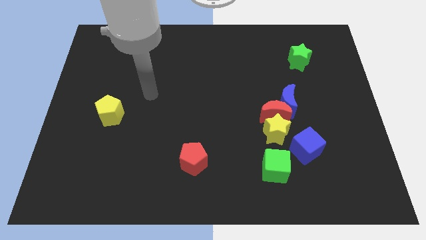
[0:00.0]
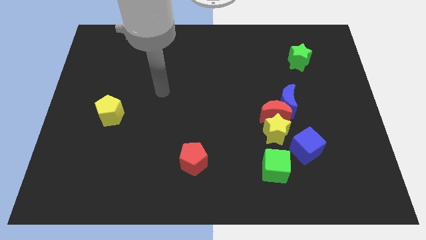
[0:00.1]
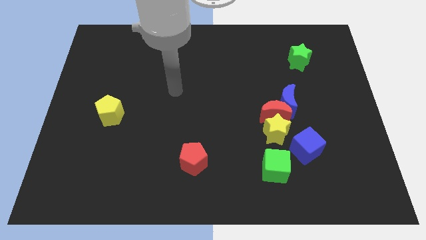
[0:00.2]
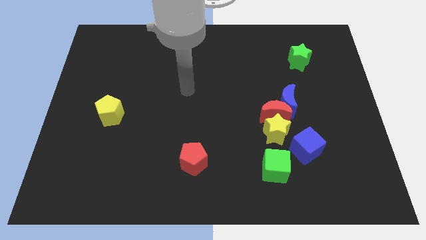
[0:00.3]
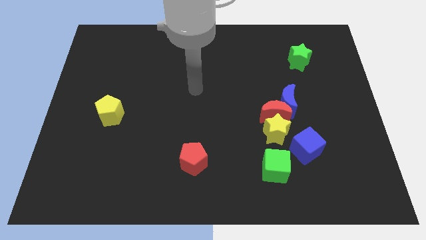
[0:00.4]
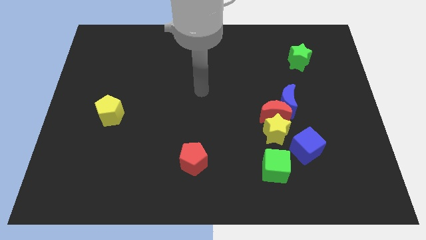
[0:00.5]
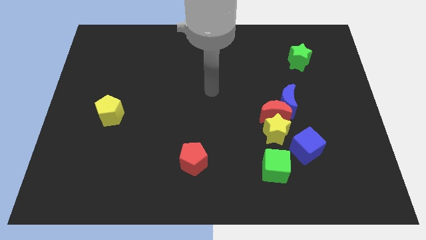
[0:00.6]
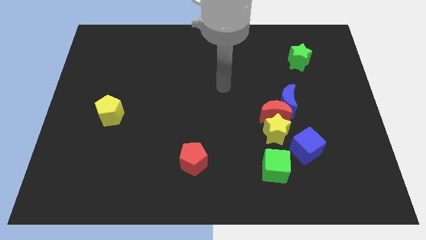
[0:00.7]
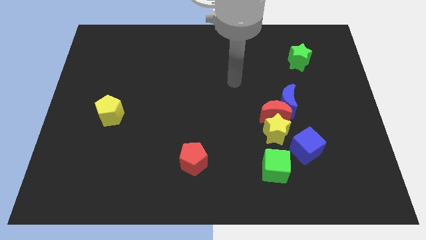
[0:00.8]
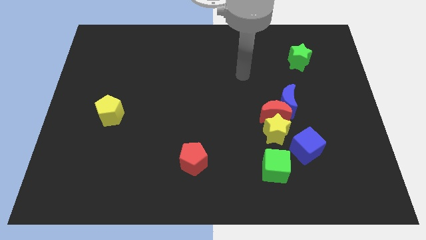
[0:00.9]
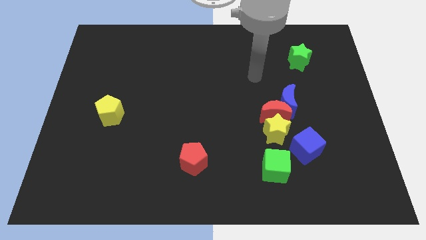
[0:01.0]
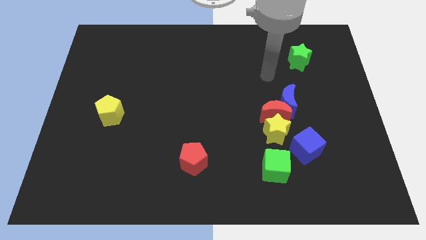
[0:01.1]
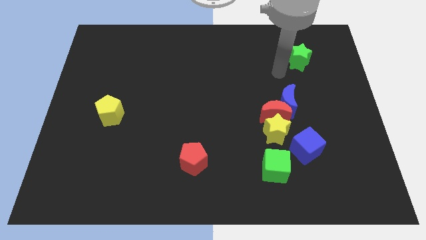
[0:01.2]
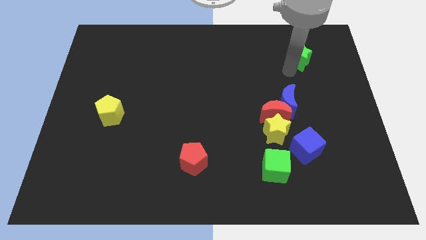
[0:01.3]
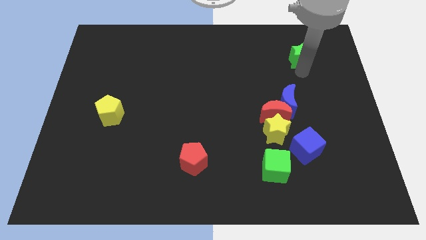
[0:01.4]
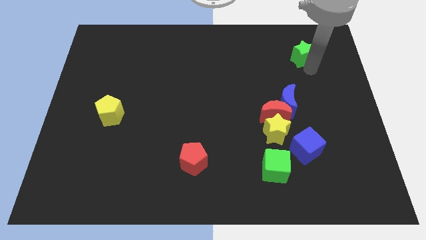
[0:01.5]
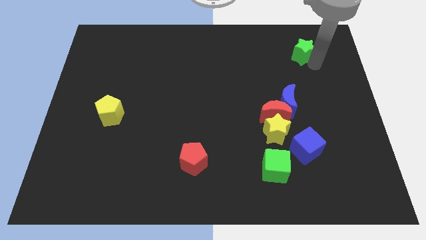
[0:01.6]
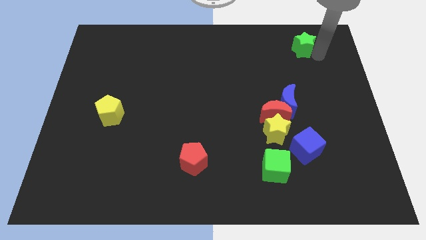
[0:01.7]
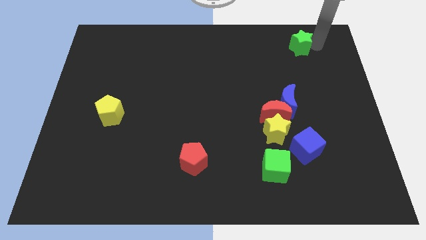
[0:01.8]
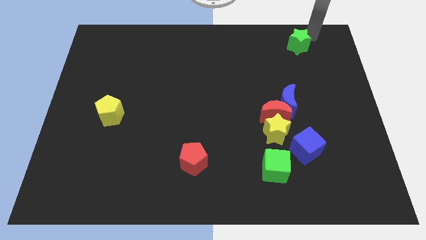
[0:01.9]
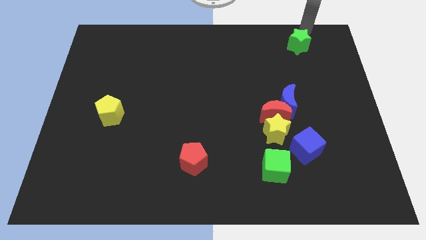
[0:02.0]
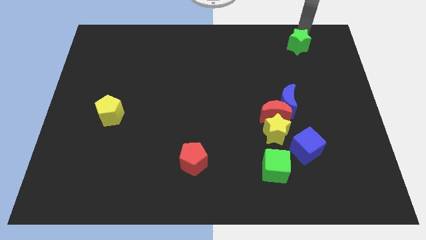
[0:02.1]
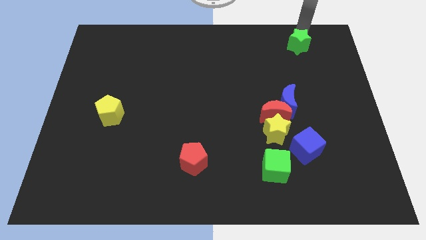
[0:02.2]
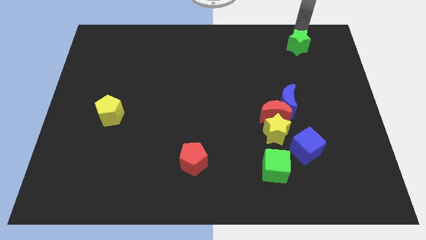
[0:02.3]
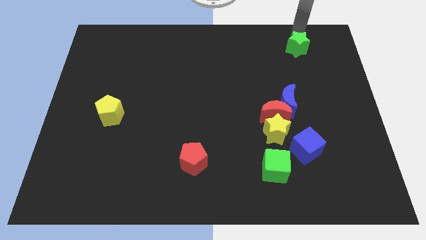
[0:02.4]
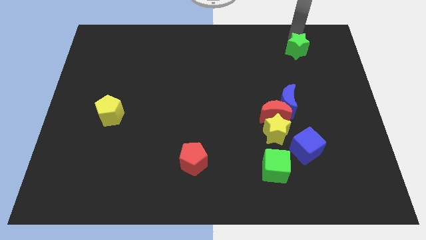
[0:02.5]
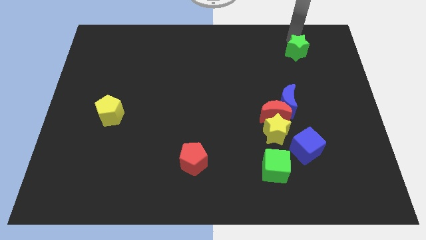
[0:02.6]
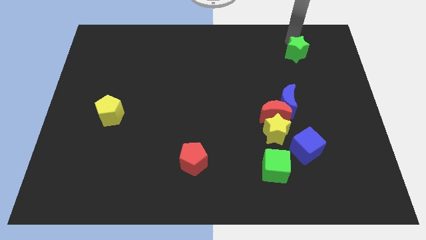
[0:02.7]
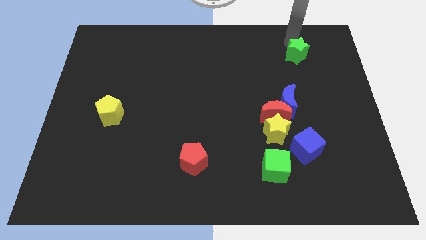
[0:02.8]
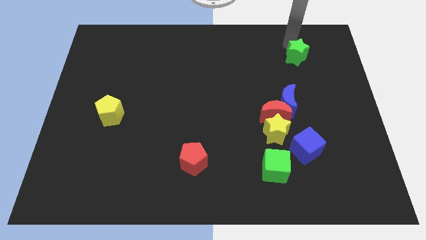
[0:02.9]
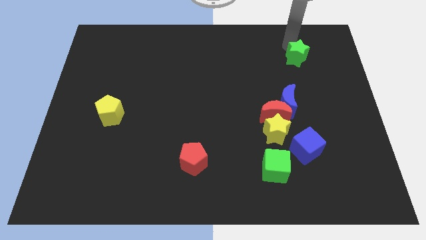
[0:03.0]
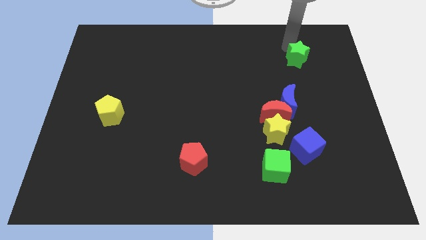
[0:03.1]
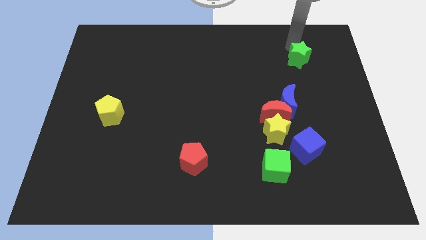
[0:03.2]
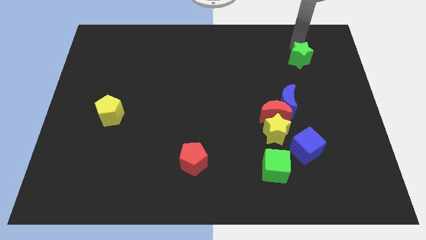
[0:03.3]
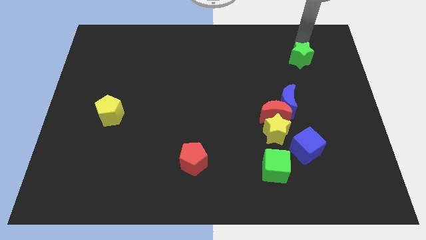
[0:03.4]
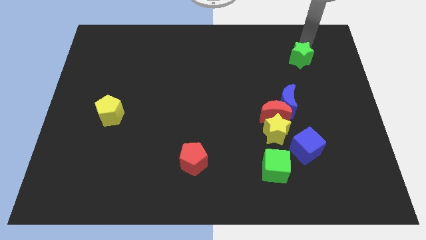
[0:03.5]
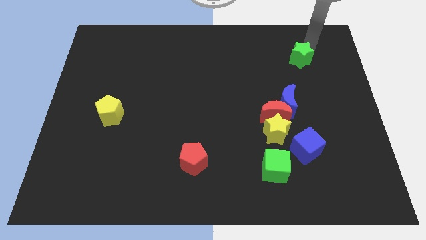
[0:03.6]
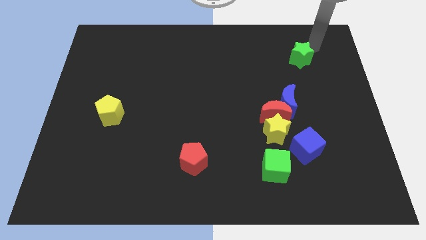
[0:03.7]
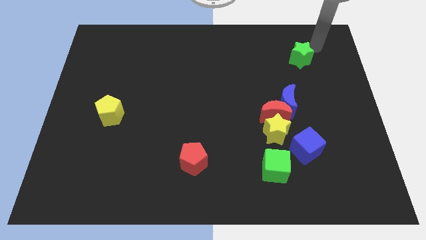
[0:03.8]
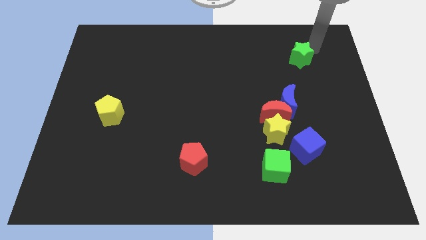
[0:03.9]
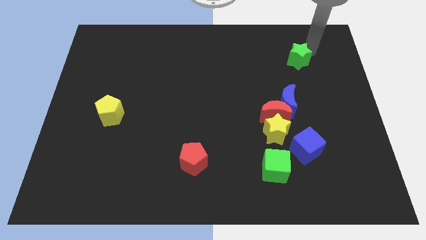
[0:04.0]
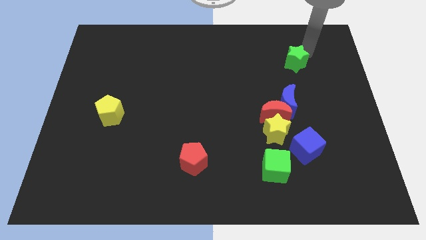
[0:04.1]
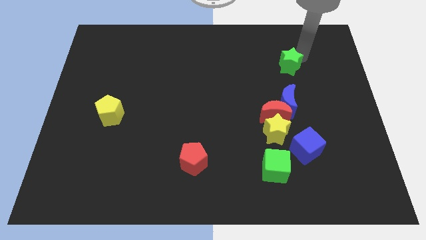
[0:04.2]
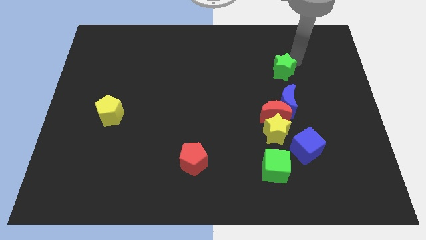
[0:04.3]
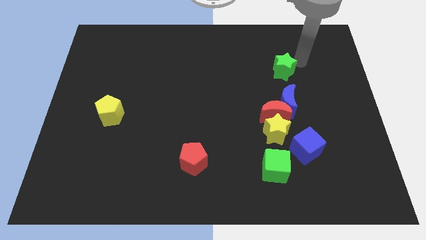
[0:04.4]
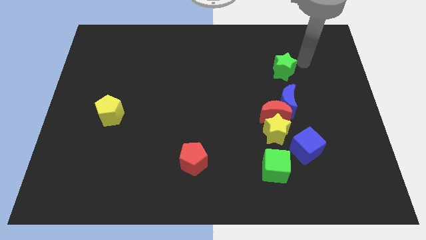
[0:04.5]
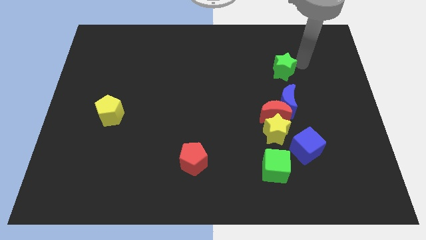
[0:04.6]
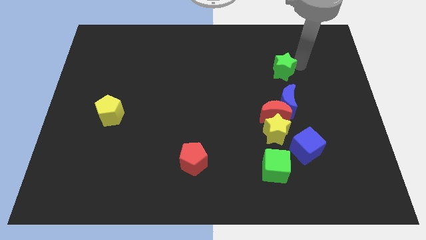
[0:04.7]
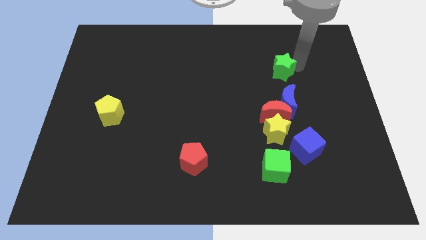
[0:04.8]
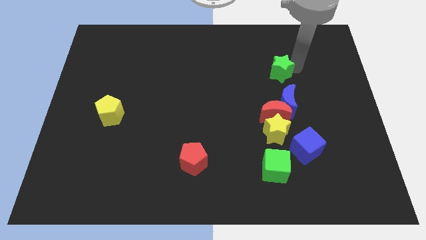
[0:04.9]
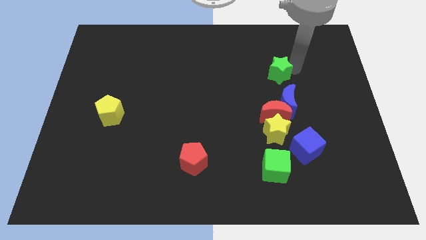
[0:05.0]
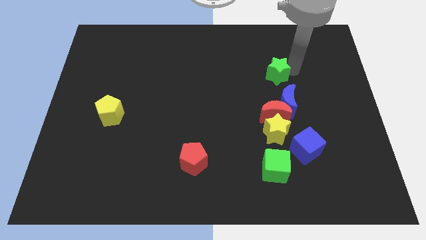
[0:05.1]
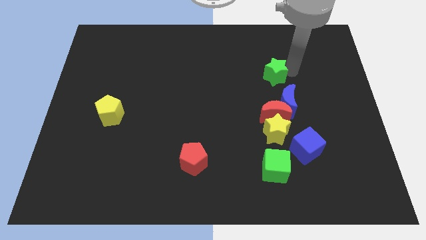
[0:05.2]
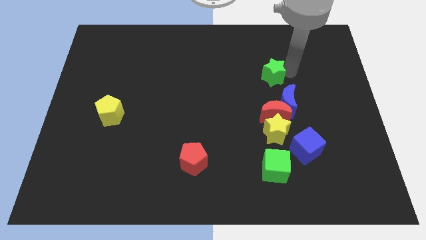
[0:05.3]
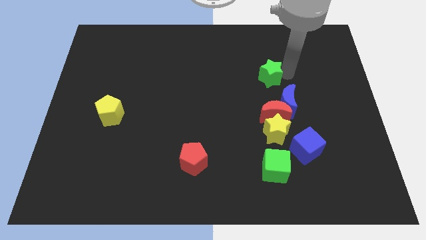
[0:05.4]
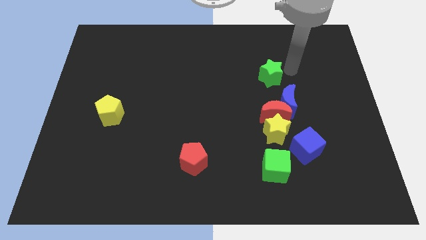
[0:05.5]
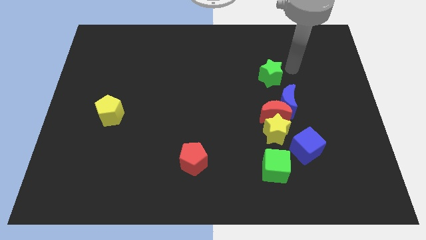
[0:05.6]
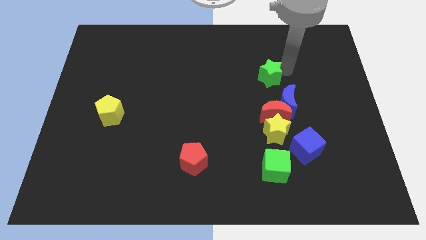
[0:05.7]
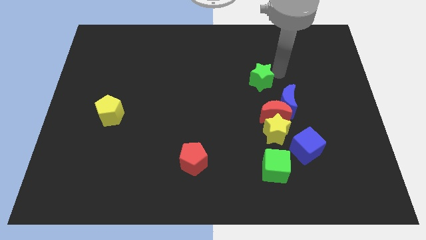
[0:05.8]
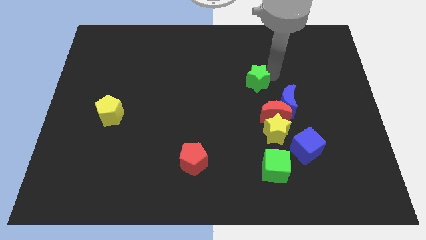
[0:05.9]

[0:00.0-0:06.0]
push the green star to the middle

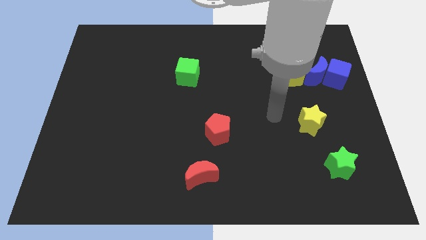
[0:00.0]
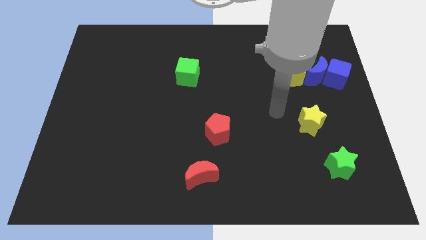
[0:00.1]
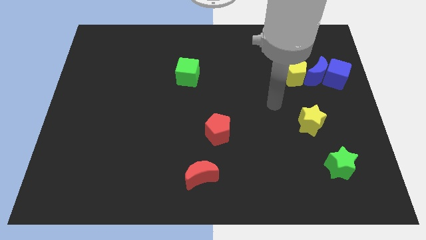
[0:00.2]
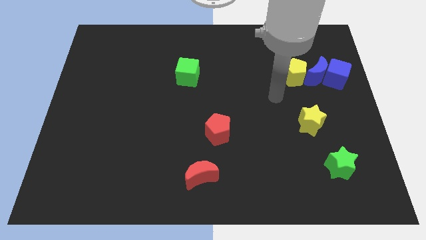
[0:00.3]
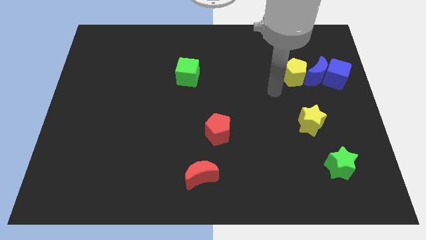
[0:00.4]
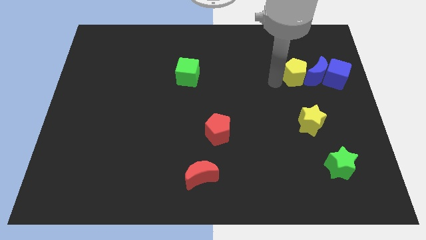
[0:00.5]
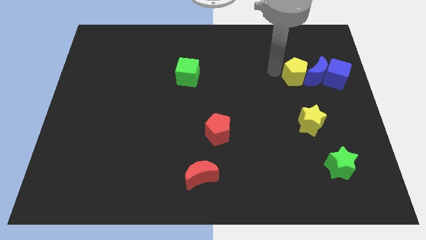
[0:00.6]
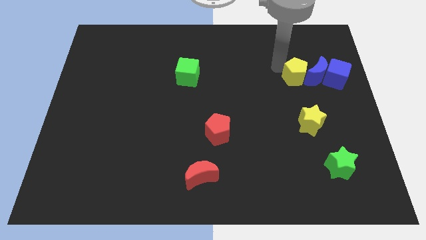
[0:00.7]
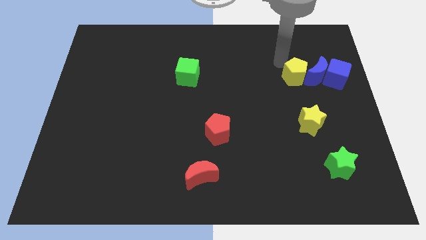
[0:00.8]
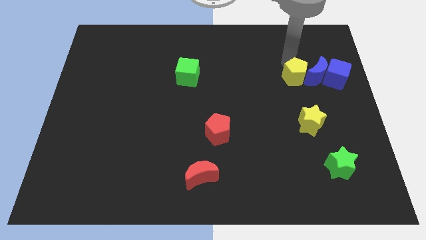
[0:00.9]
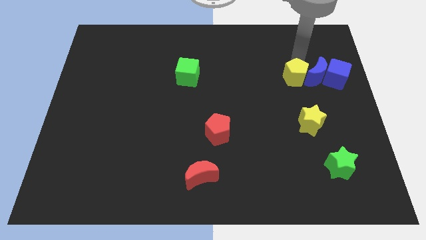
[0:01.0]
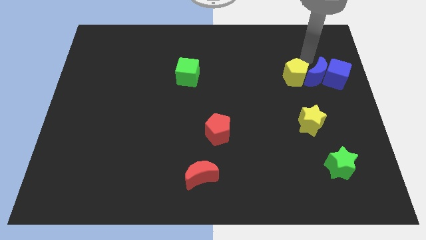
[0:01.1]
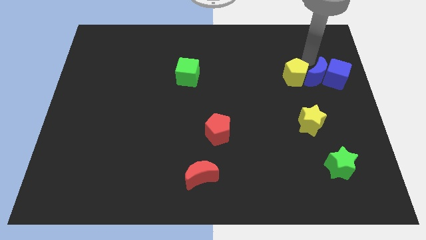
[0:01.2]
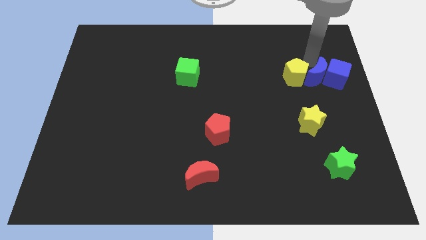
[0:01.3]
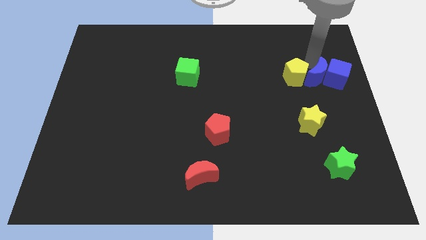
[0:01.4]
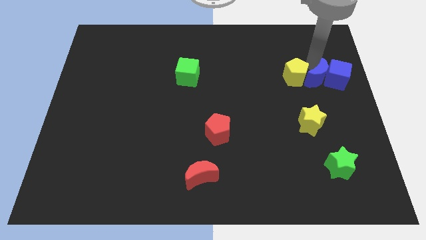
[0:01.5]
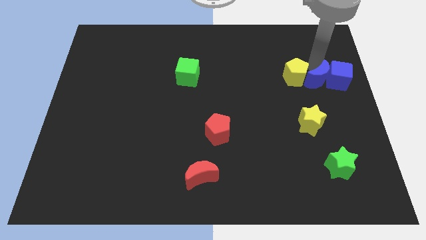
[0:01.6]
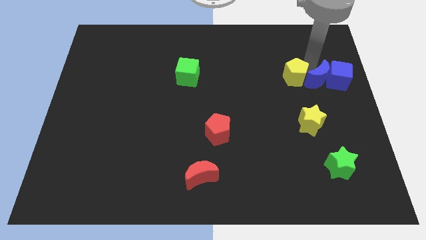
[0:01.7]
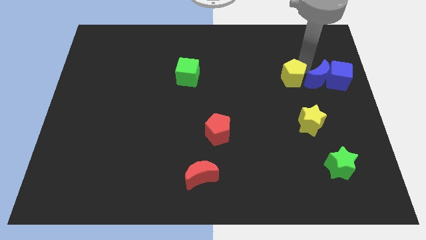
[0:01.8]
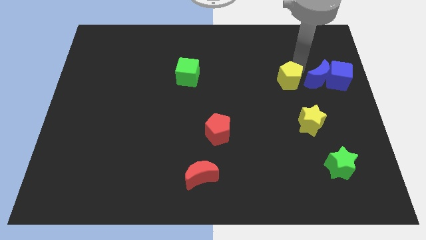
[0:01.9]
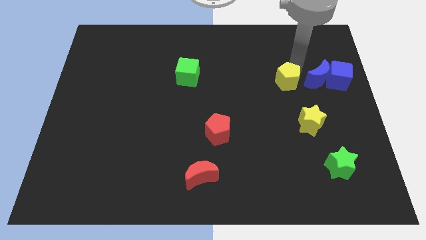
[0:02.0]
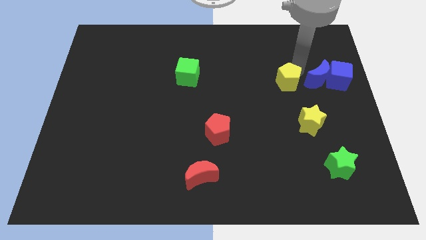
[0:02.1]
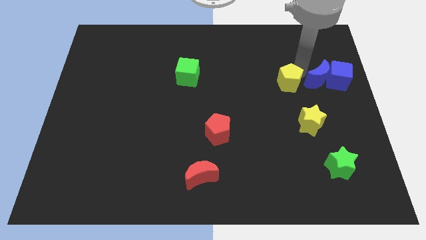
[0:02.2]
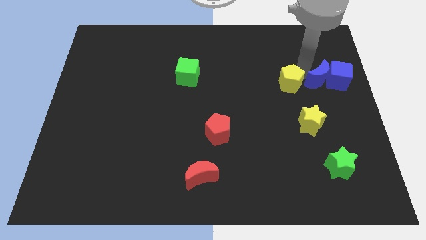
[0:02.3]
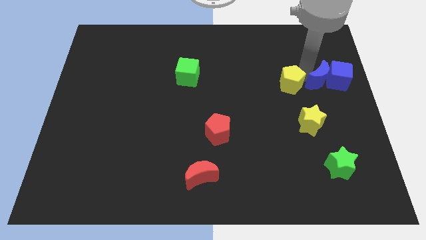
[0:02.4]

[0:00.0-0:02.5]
push the blue moon to the right side
